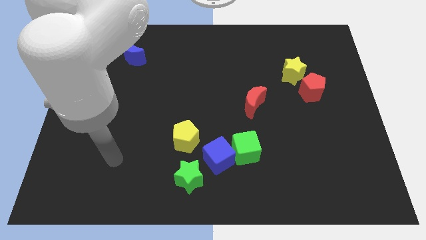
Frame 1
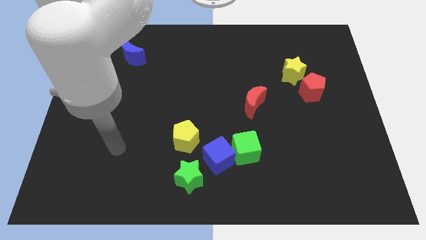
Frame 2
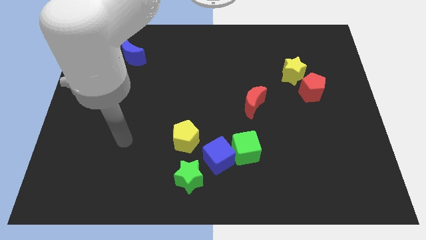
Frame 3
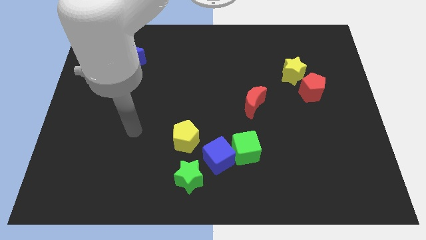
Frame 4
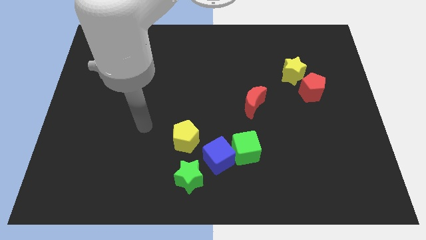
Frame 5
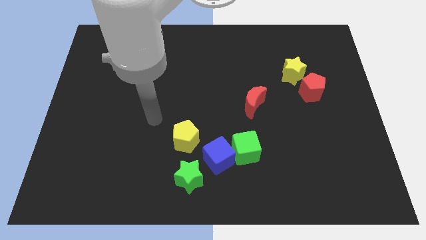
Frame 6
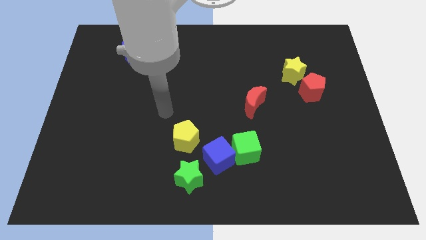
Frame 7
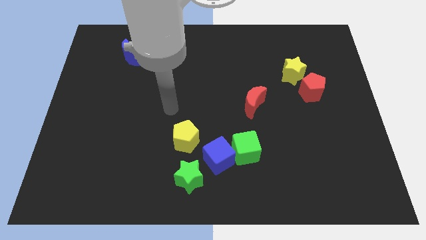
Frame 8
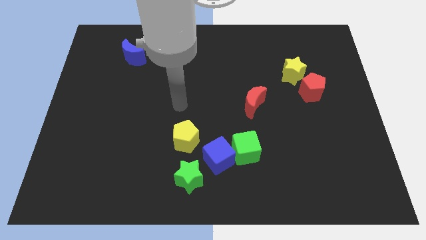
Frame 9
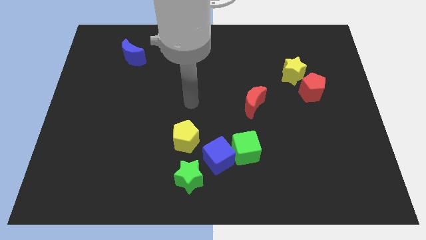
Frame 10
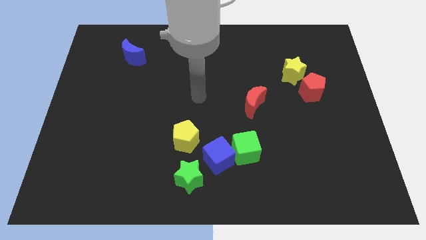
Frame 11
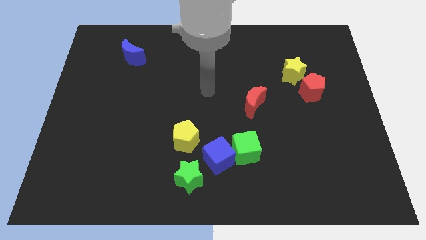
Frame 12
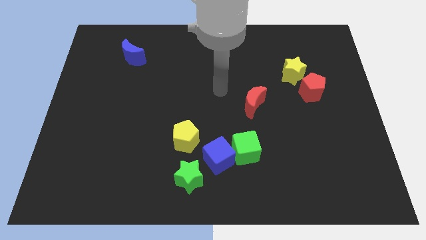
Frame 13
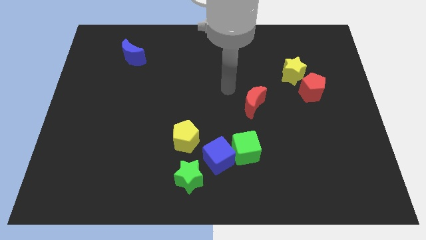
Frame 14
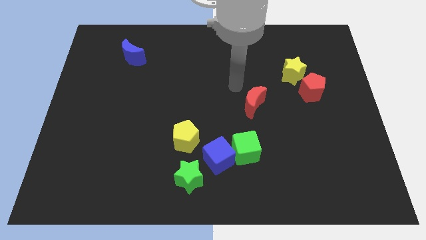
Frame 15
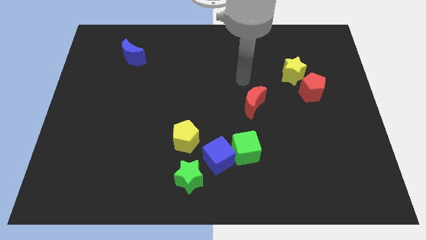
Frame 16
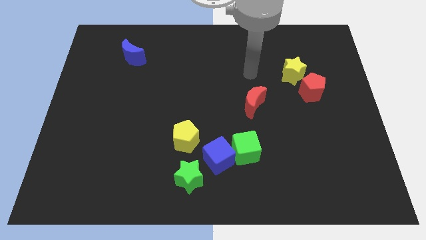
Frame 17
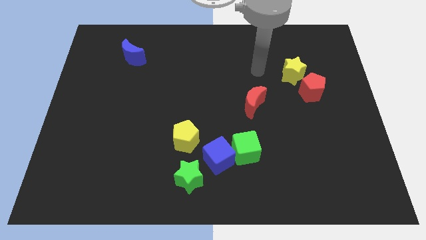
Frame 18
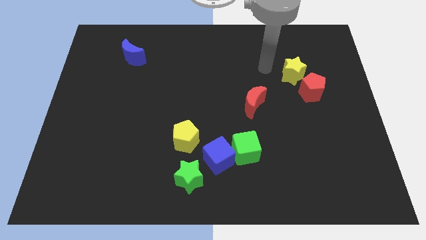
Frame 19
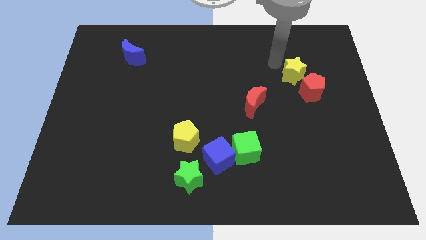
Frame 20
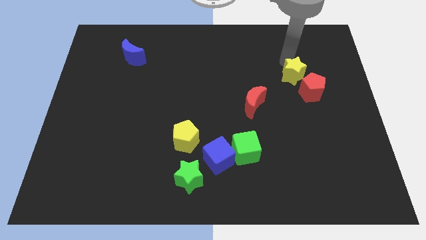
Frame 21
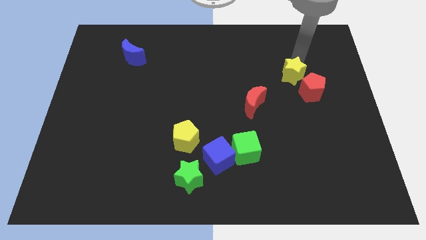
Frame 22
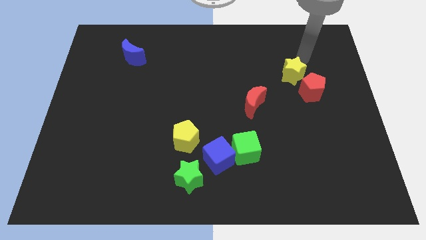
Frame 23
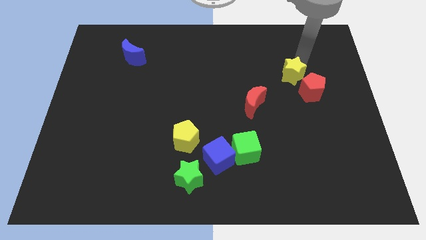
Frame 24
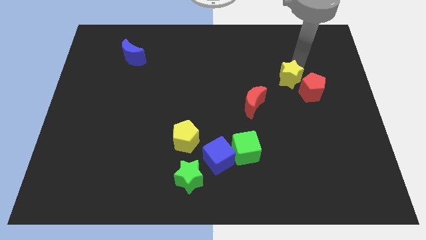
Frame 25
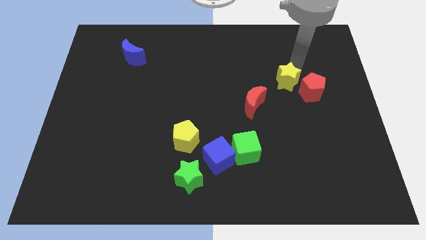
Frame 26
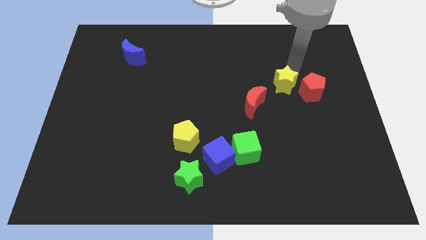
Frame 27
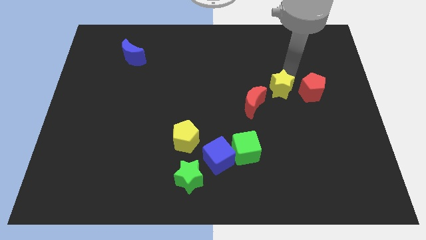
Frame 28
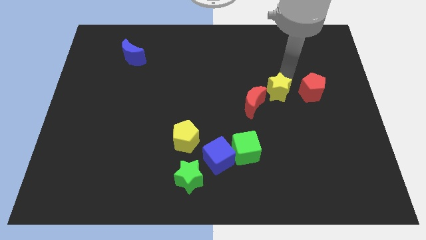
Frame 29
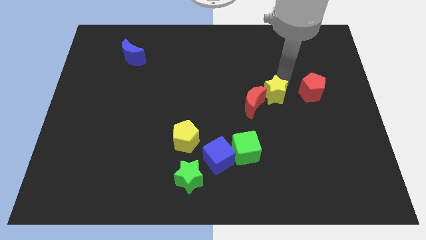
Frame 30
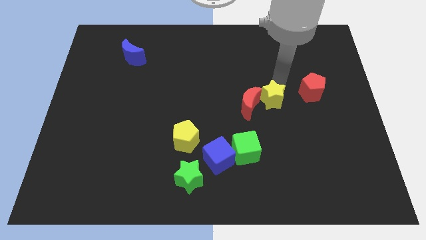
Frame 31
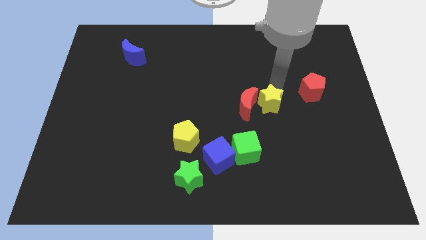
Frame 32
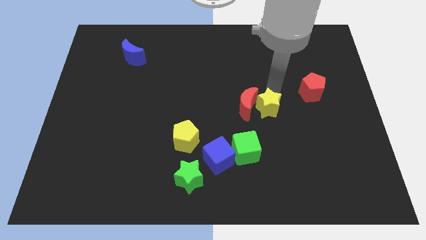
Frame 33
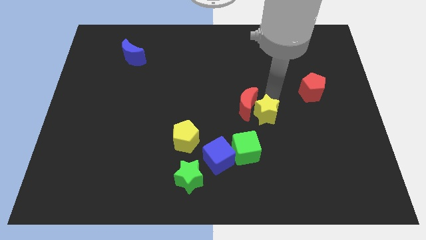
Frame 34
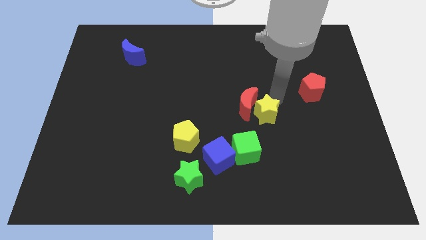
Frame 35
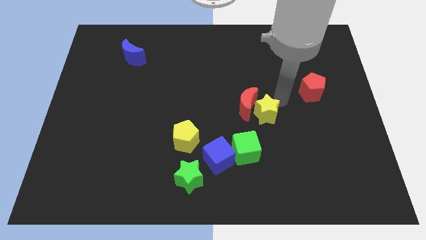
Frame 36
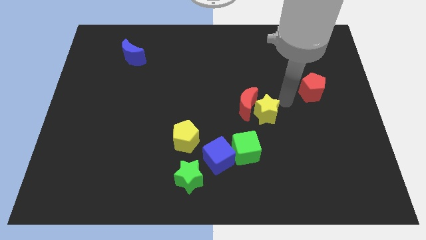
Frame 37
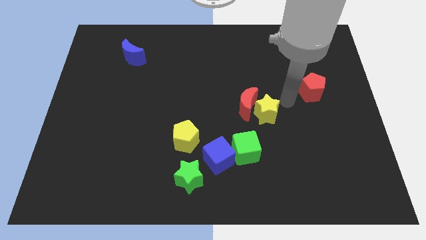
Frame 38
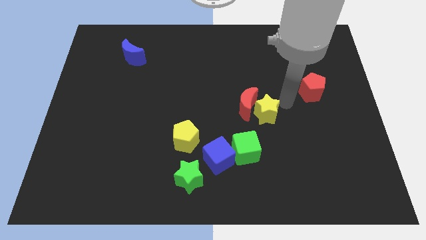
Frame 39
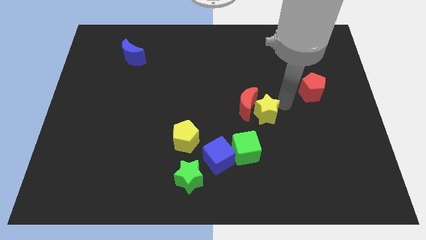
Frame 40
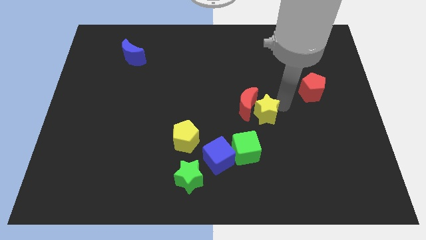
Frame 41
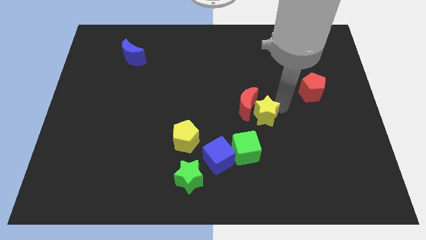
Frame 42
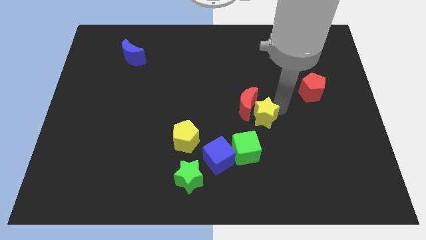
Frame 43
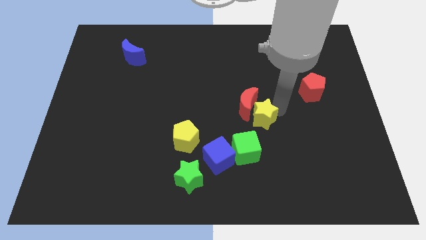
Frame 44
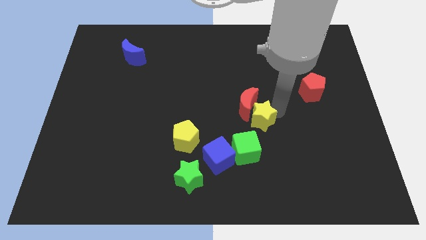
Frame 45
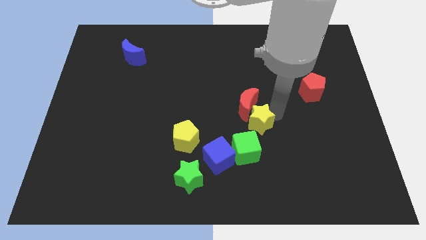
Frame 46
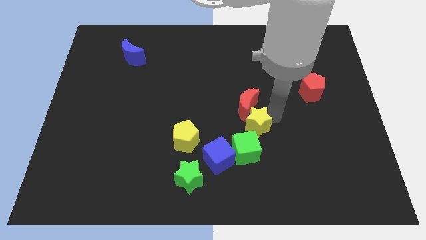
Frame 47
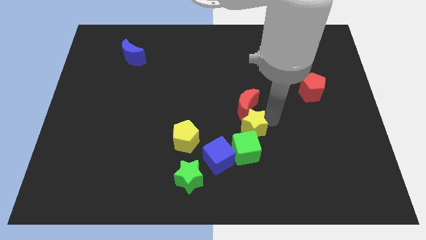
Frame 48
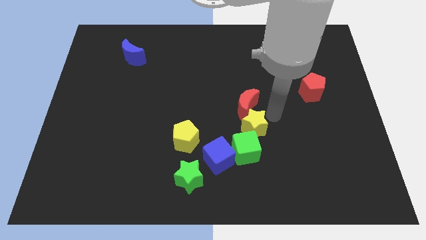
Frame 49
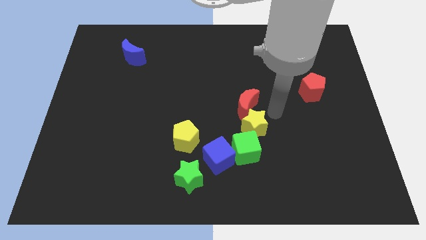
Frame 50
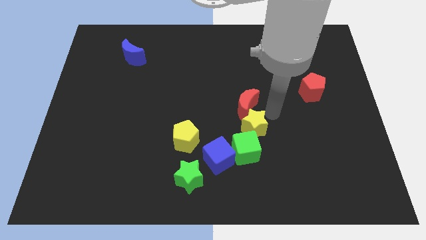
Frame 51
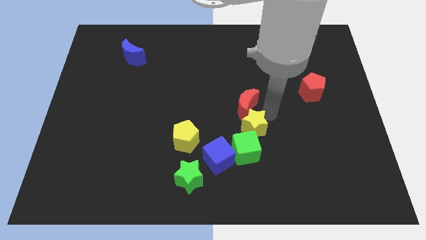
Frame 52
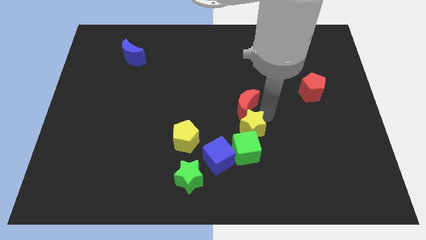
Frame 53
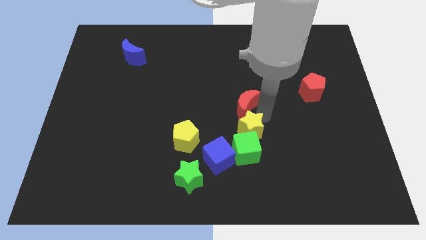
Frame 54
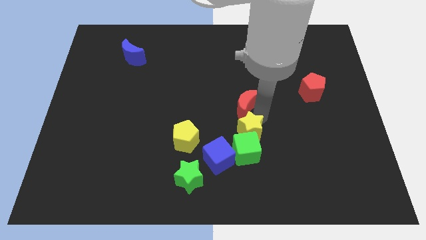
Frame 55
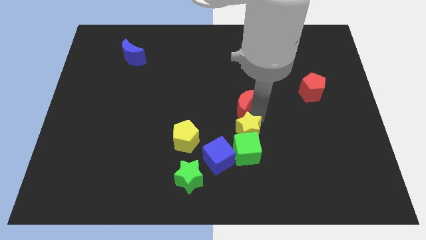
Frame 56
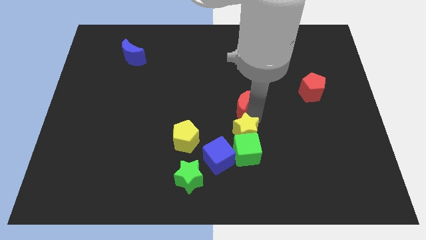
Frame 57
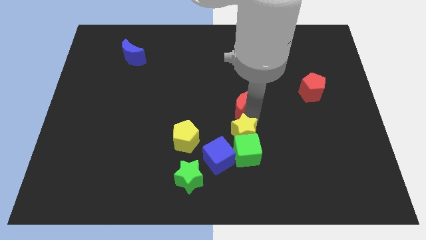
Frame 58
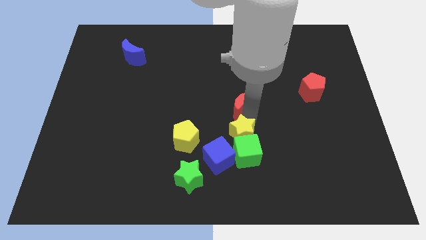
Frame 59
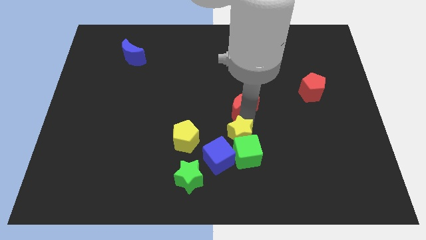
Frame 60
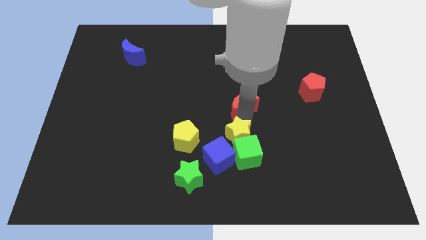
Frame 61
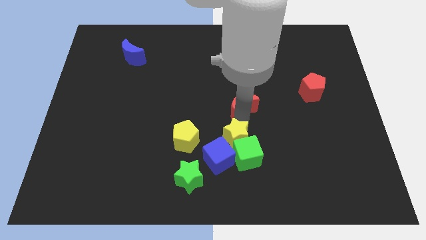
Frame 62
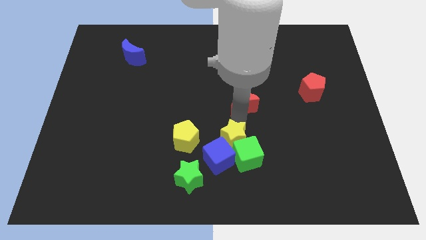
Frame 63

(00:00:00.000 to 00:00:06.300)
put the yellow star towards the blue cube
